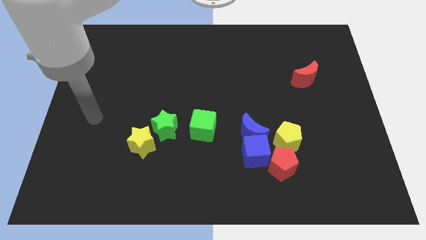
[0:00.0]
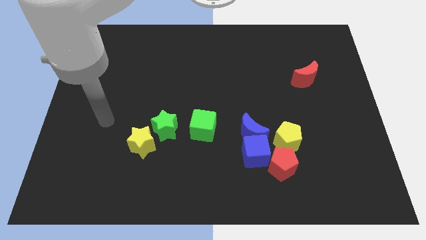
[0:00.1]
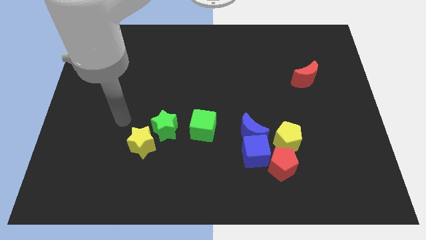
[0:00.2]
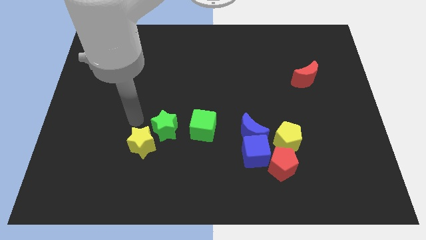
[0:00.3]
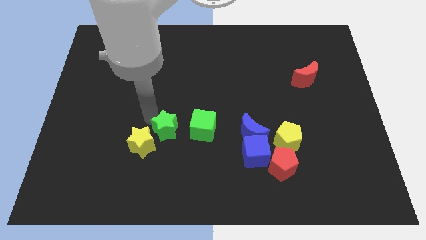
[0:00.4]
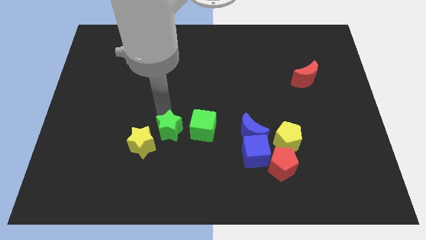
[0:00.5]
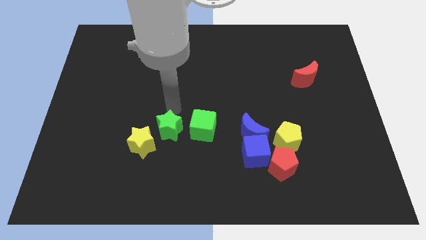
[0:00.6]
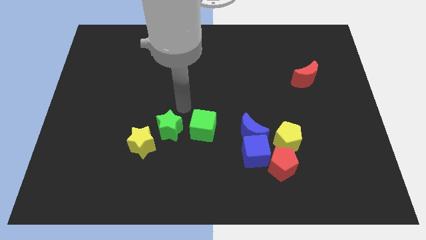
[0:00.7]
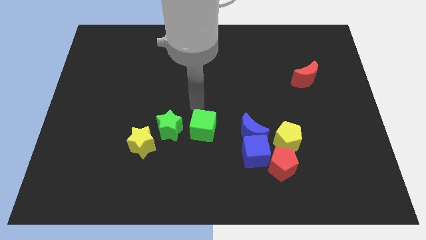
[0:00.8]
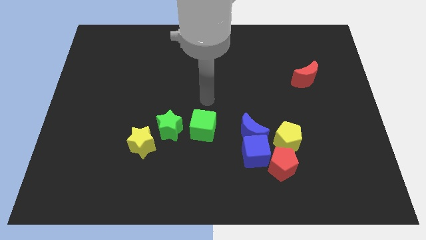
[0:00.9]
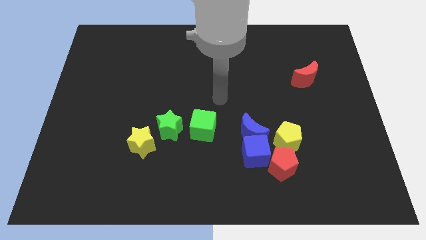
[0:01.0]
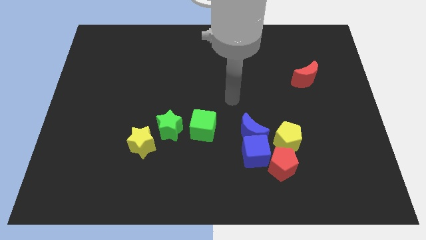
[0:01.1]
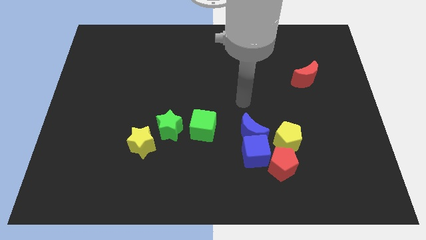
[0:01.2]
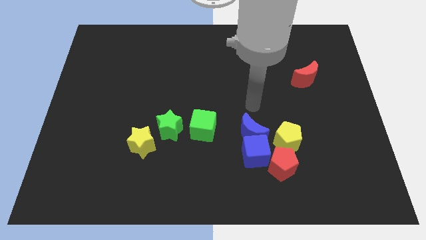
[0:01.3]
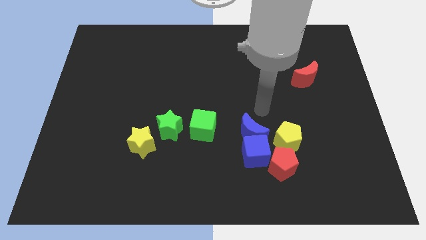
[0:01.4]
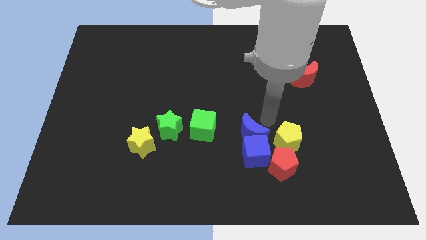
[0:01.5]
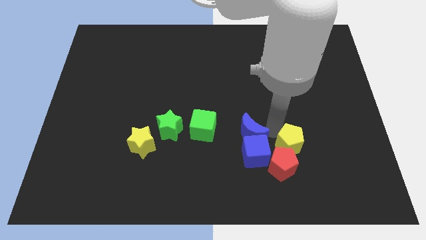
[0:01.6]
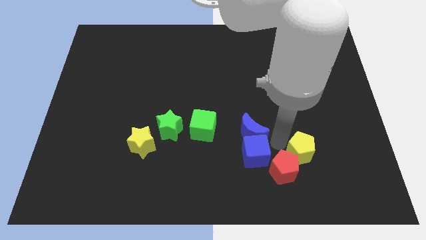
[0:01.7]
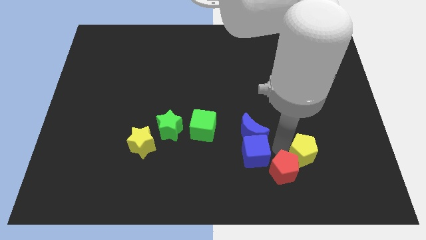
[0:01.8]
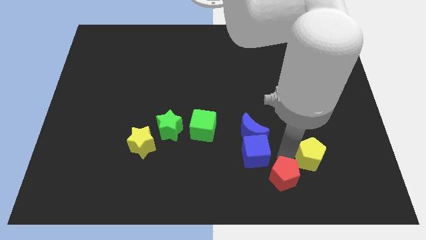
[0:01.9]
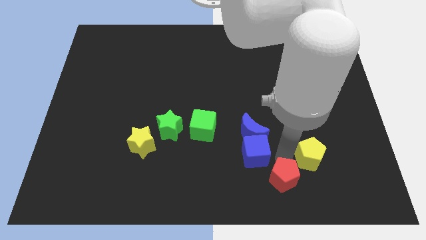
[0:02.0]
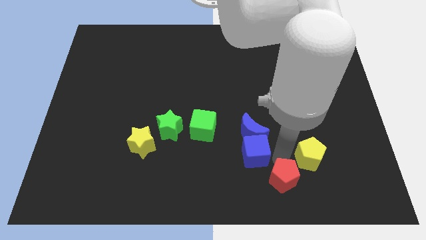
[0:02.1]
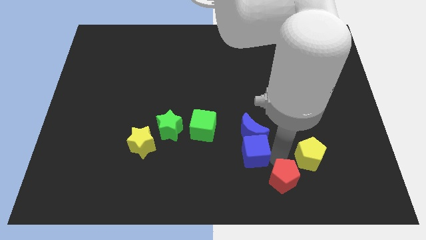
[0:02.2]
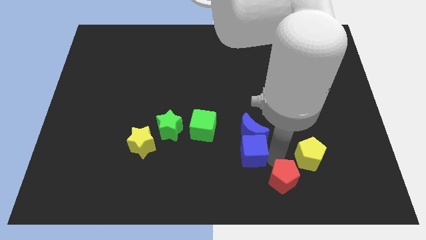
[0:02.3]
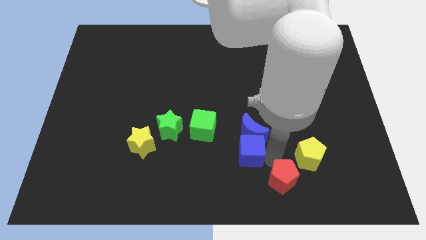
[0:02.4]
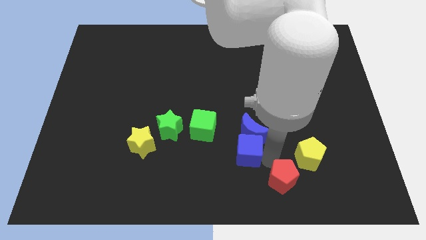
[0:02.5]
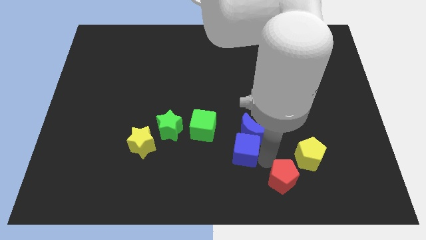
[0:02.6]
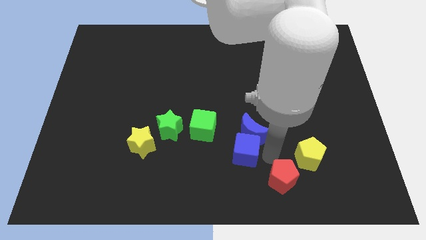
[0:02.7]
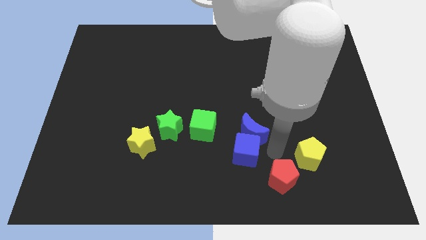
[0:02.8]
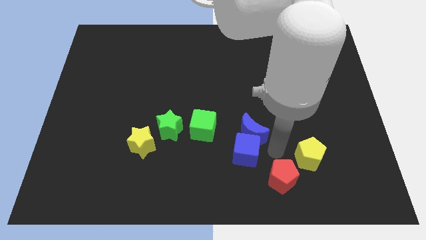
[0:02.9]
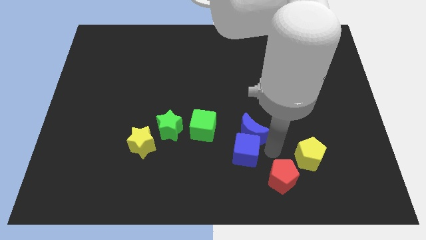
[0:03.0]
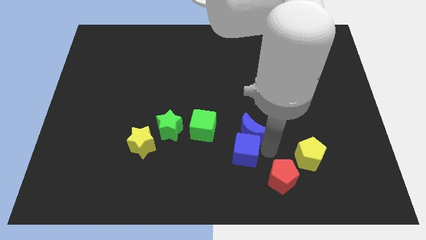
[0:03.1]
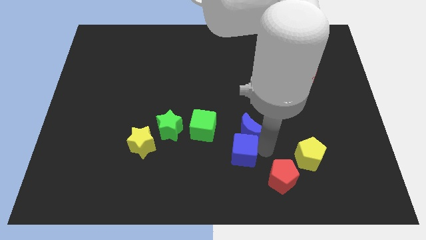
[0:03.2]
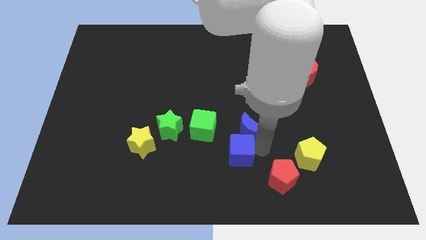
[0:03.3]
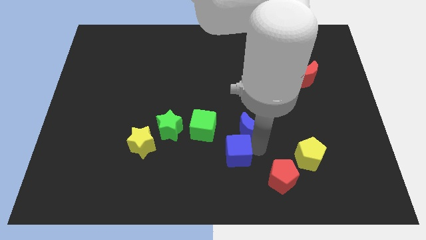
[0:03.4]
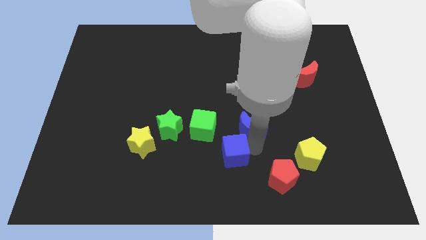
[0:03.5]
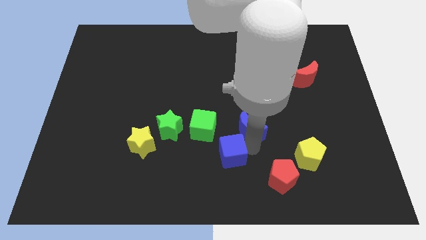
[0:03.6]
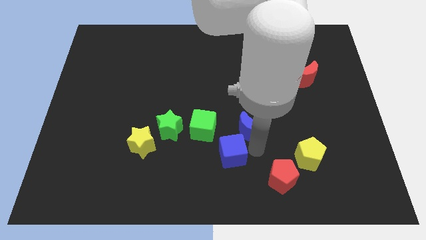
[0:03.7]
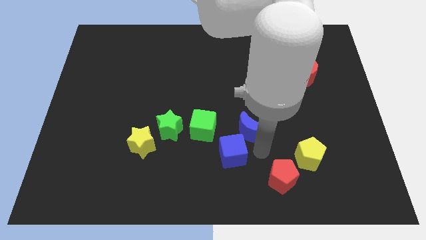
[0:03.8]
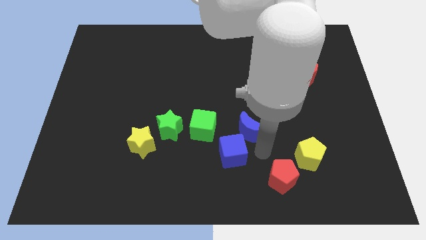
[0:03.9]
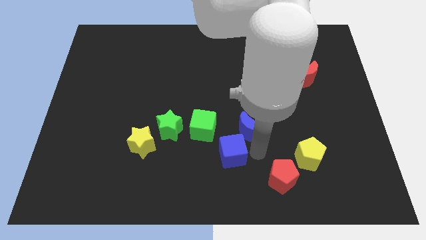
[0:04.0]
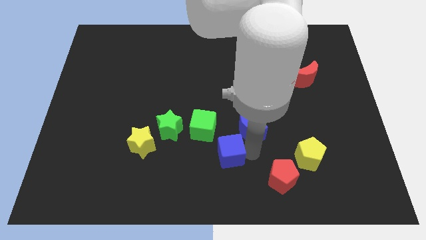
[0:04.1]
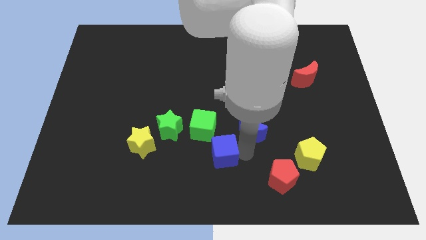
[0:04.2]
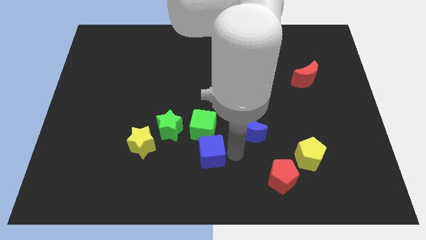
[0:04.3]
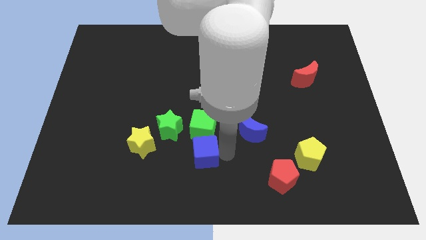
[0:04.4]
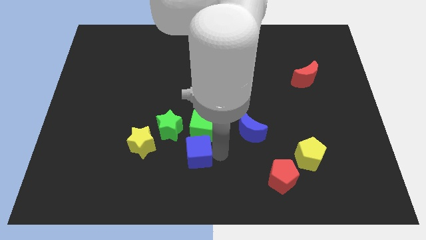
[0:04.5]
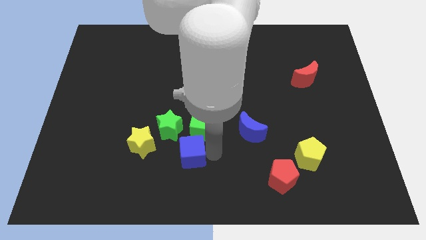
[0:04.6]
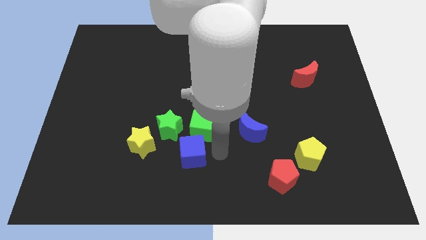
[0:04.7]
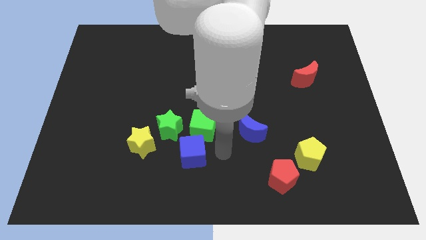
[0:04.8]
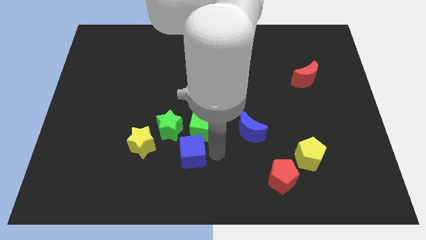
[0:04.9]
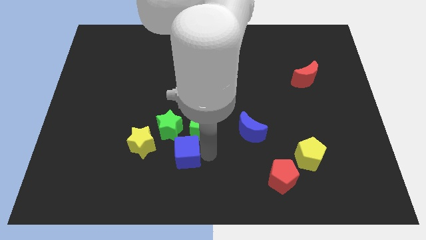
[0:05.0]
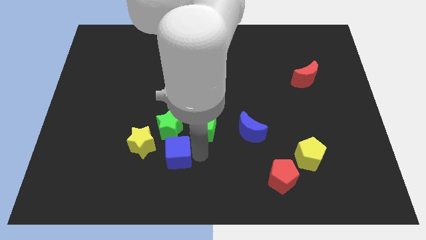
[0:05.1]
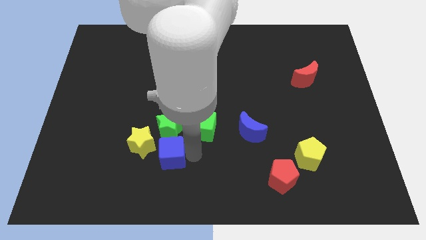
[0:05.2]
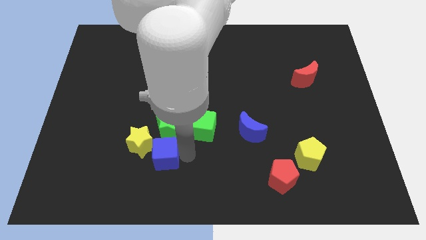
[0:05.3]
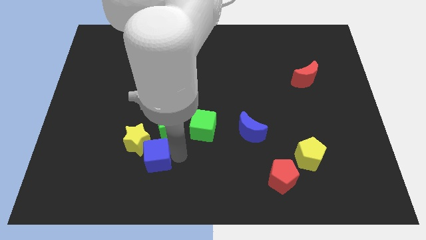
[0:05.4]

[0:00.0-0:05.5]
push the blue cube to the left

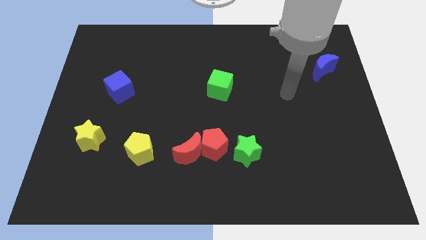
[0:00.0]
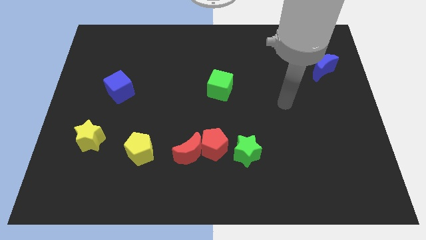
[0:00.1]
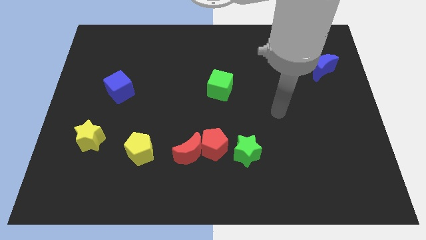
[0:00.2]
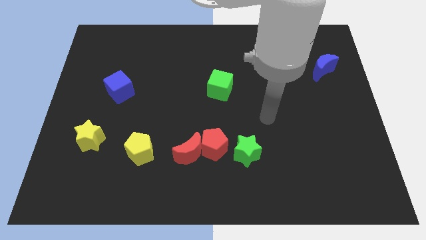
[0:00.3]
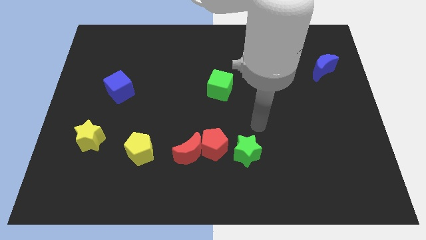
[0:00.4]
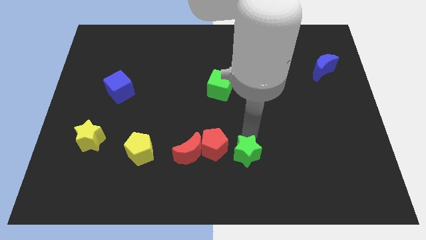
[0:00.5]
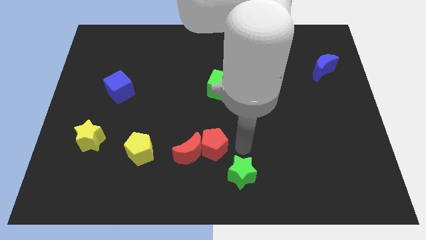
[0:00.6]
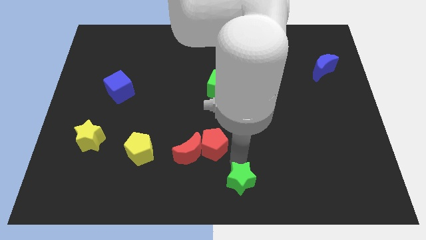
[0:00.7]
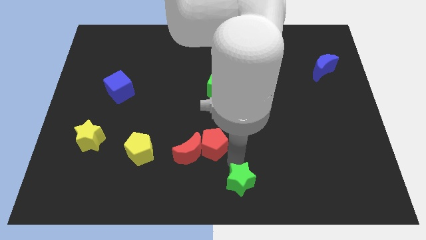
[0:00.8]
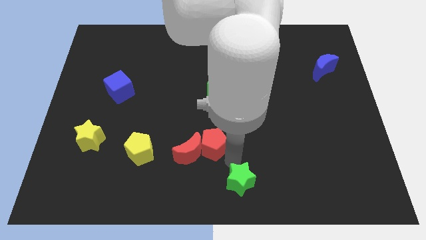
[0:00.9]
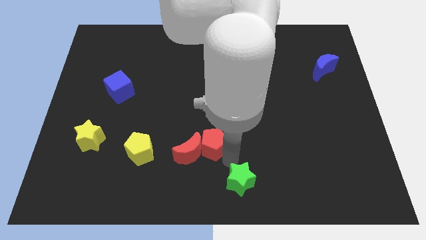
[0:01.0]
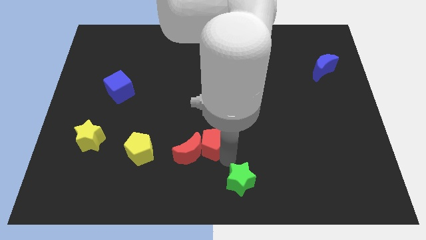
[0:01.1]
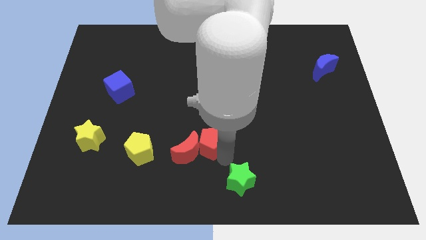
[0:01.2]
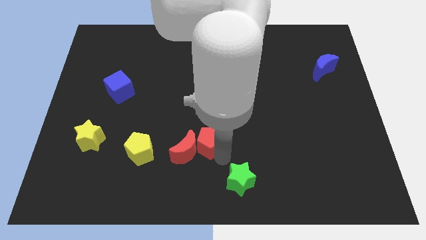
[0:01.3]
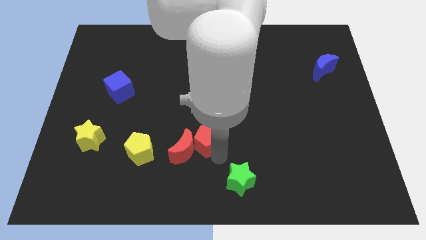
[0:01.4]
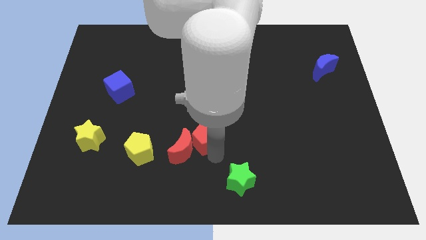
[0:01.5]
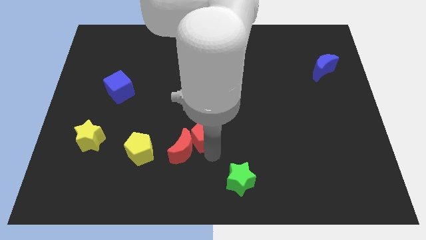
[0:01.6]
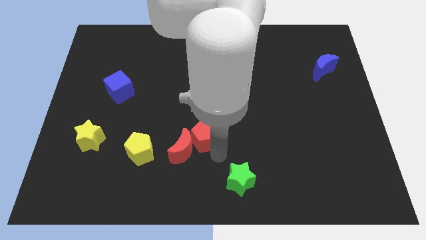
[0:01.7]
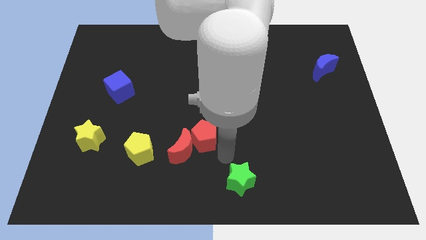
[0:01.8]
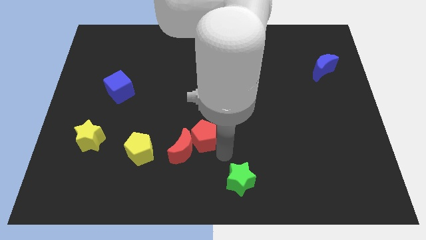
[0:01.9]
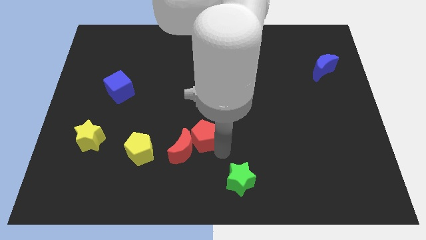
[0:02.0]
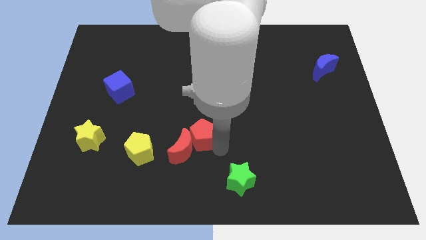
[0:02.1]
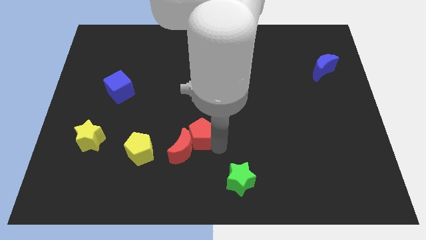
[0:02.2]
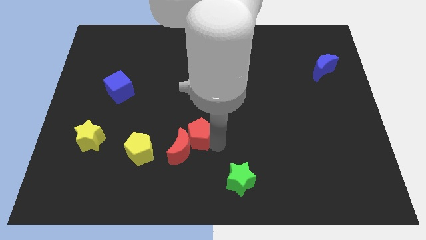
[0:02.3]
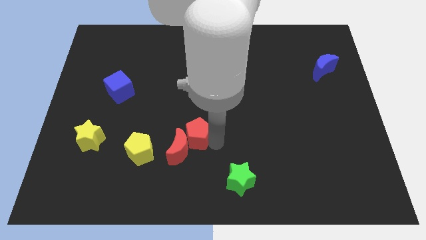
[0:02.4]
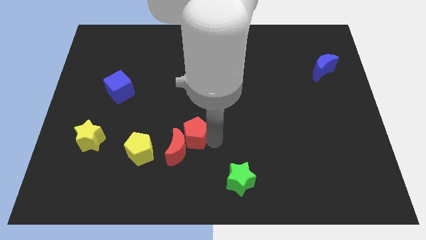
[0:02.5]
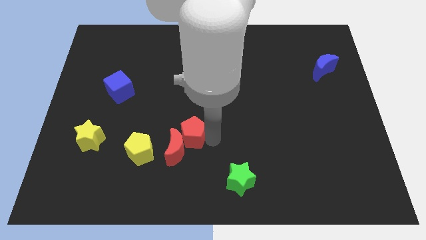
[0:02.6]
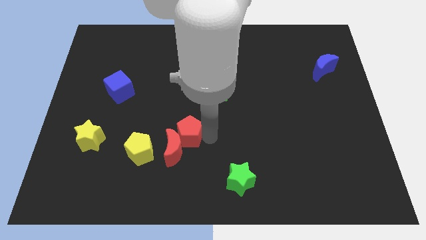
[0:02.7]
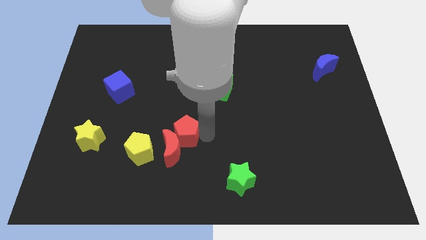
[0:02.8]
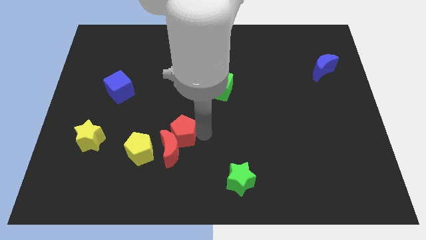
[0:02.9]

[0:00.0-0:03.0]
push the red pentagon slightly upwards and left diagonally
